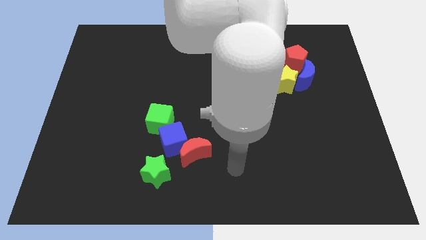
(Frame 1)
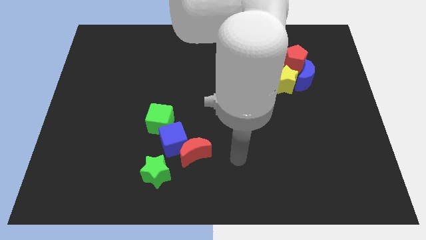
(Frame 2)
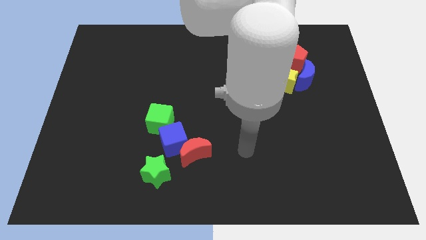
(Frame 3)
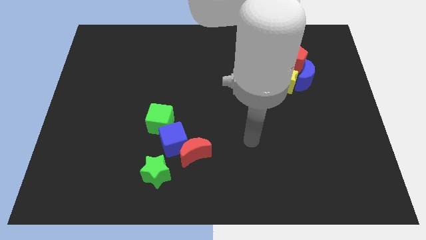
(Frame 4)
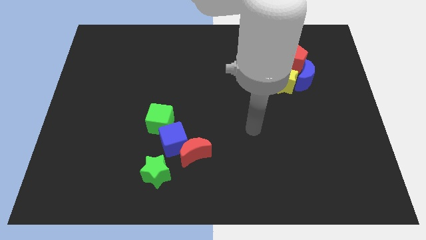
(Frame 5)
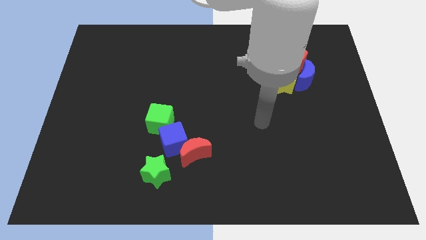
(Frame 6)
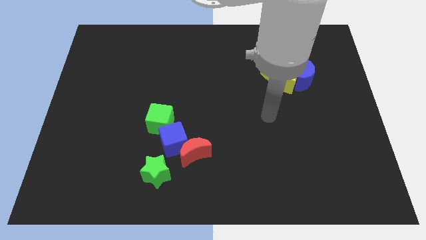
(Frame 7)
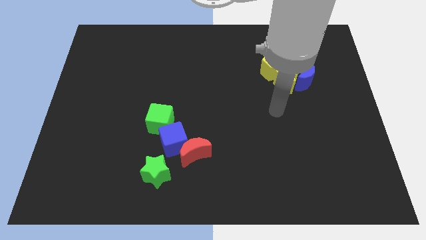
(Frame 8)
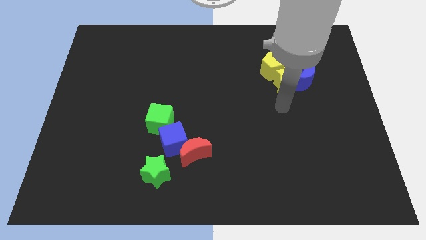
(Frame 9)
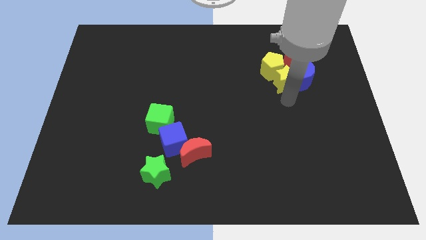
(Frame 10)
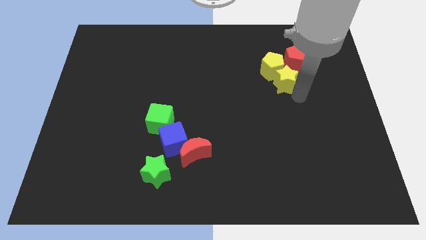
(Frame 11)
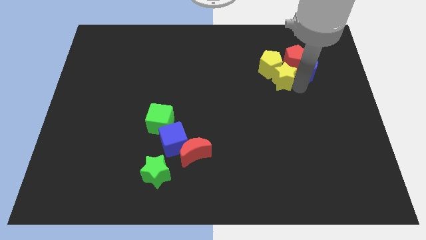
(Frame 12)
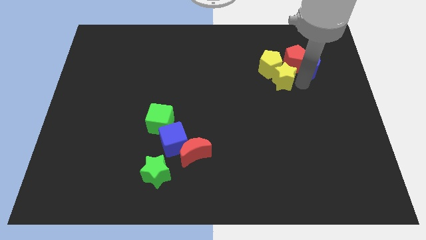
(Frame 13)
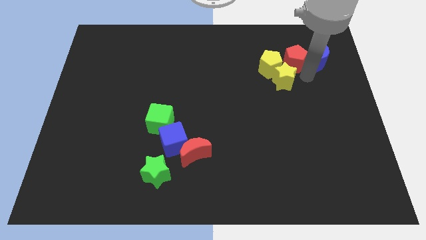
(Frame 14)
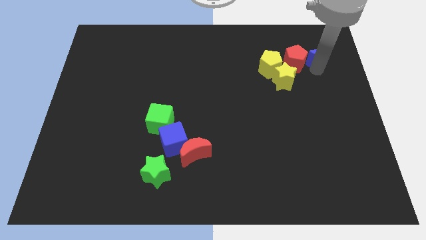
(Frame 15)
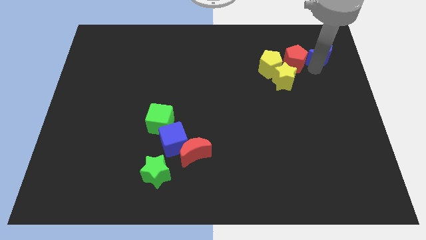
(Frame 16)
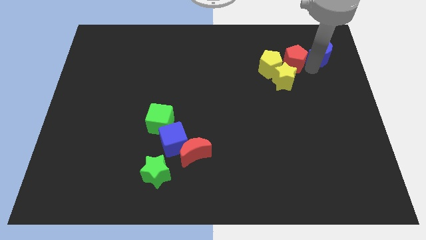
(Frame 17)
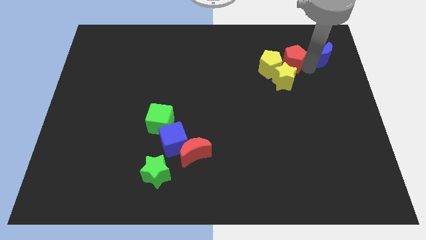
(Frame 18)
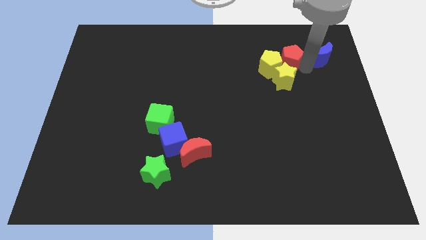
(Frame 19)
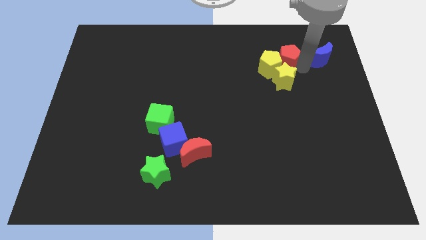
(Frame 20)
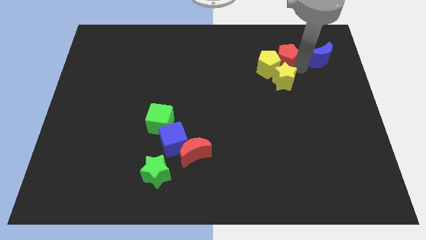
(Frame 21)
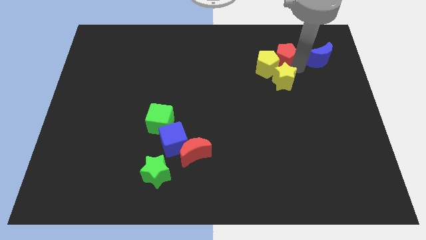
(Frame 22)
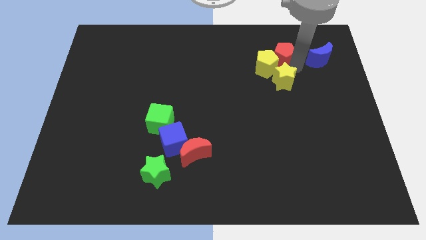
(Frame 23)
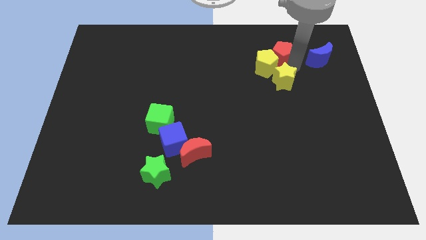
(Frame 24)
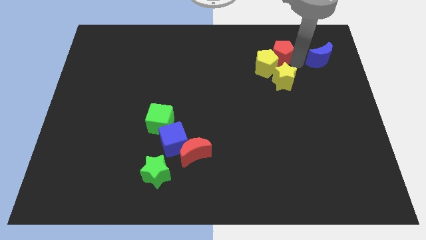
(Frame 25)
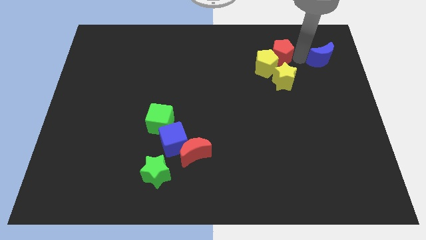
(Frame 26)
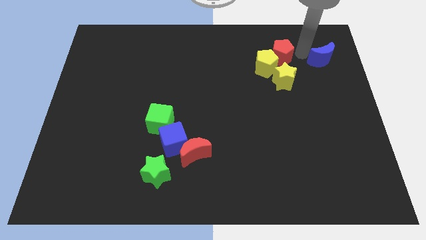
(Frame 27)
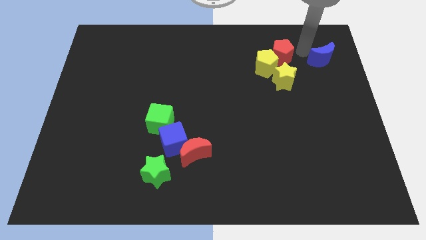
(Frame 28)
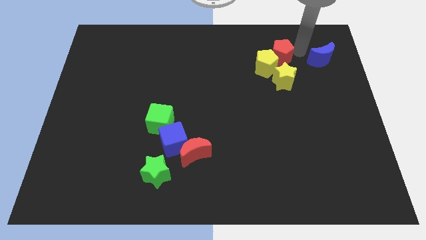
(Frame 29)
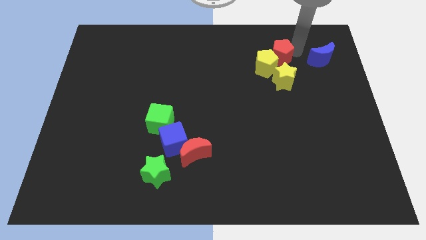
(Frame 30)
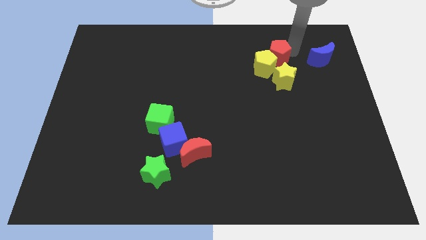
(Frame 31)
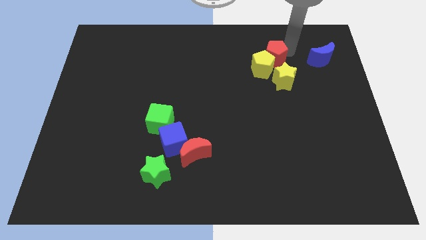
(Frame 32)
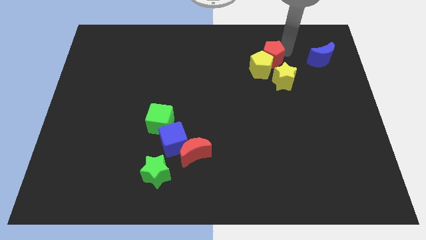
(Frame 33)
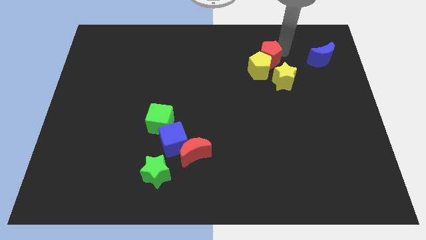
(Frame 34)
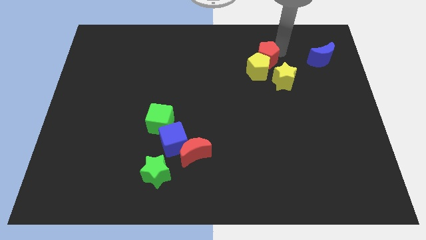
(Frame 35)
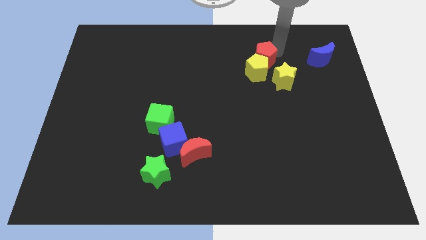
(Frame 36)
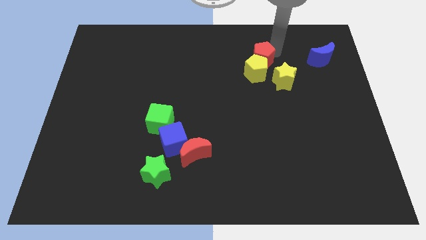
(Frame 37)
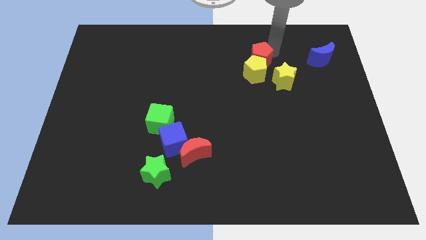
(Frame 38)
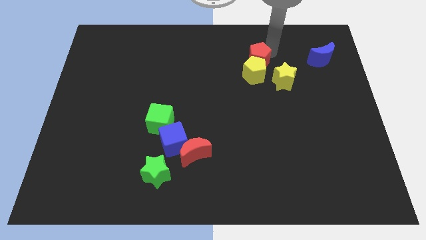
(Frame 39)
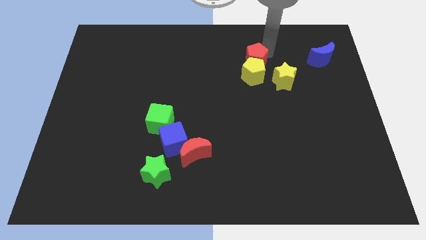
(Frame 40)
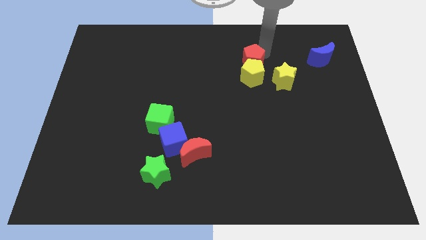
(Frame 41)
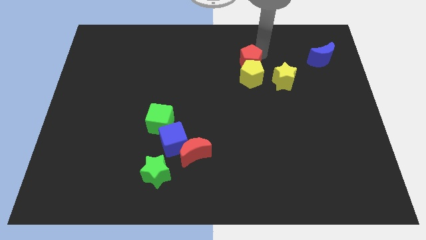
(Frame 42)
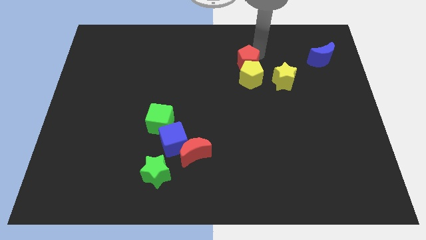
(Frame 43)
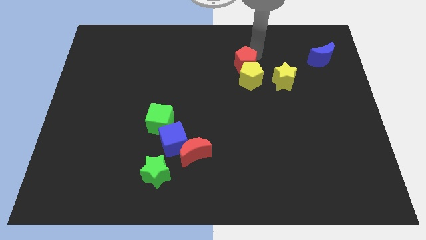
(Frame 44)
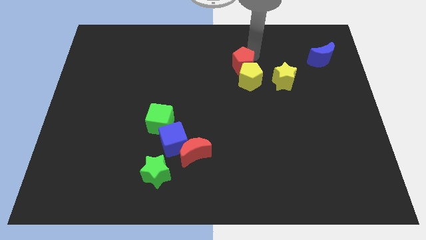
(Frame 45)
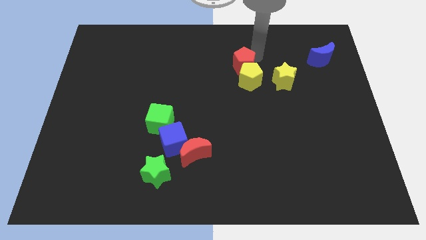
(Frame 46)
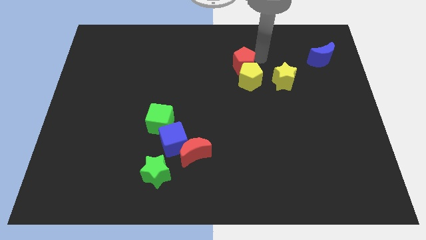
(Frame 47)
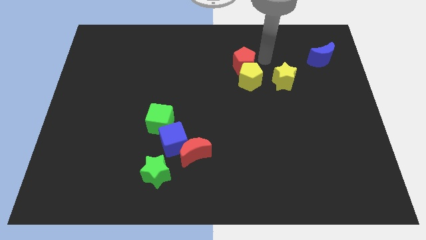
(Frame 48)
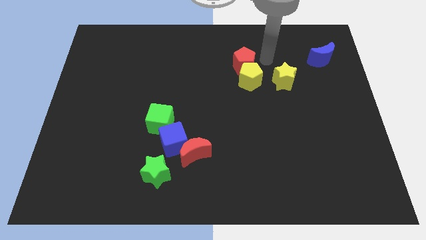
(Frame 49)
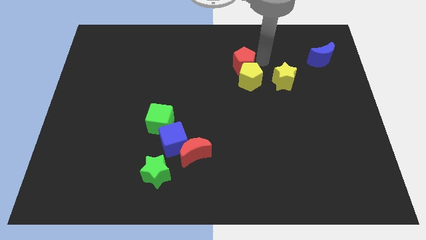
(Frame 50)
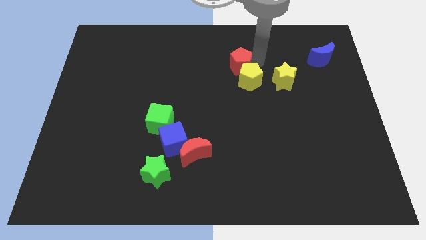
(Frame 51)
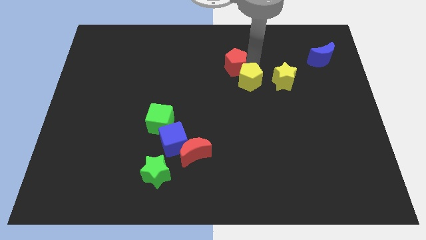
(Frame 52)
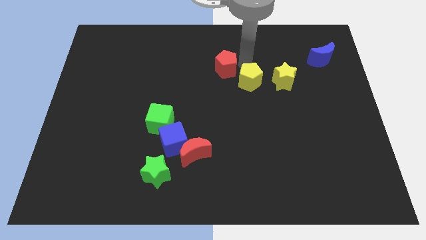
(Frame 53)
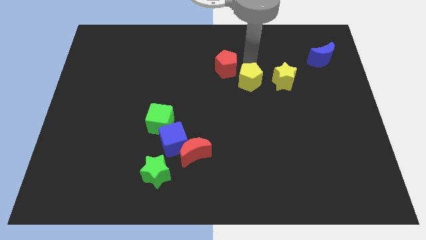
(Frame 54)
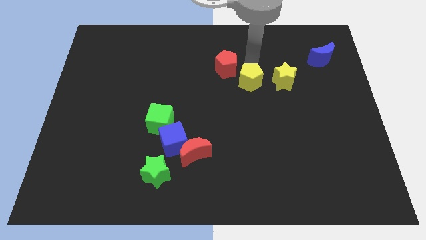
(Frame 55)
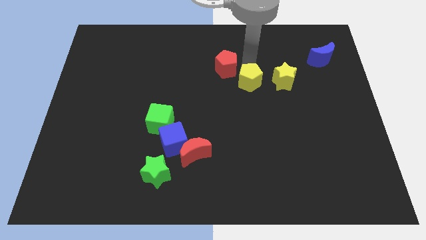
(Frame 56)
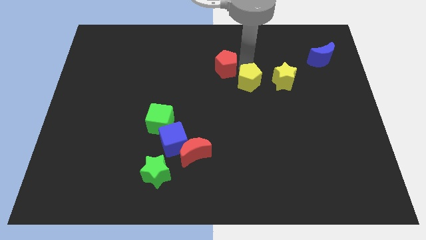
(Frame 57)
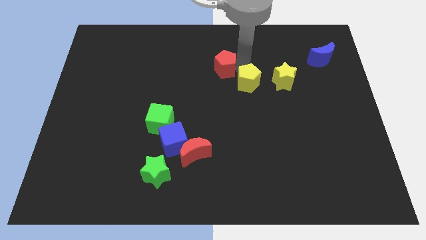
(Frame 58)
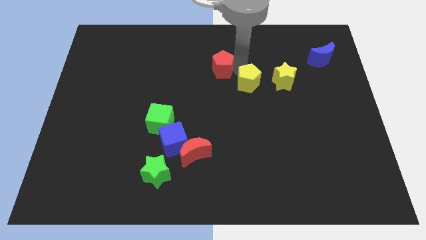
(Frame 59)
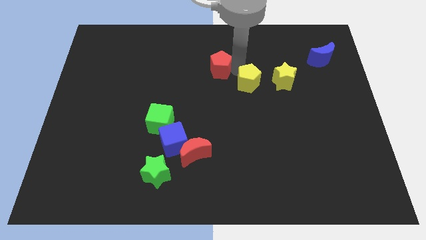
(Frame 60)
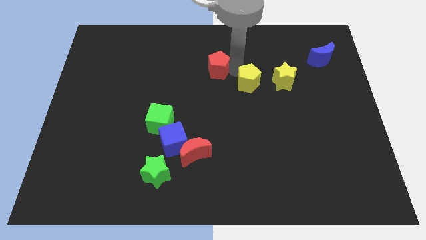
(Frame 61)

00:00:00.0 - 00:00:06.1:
move the red pentagon to the left

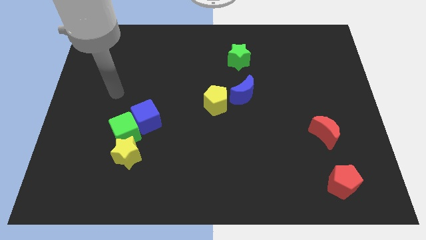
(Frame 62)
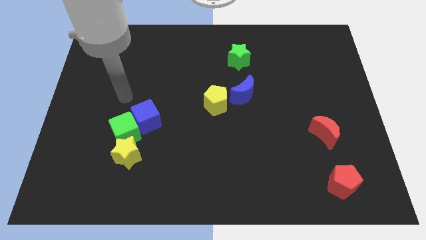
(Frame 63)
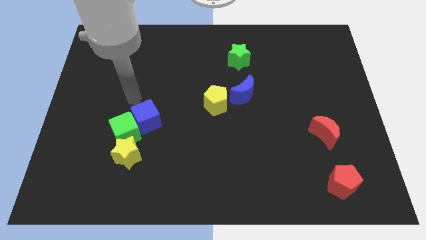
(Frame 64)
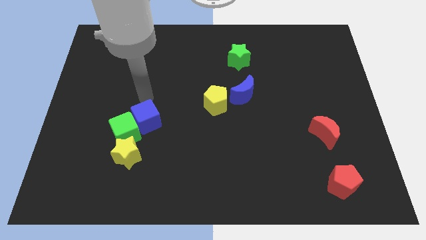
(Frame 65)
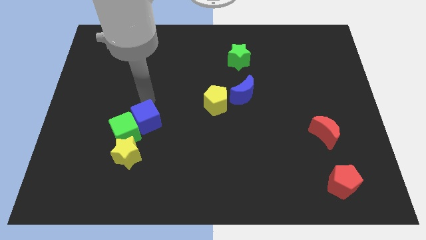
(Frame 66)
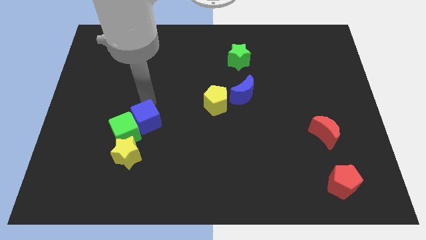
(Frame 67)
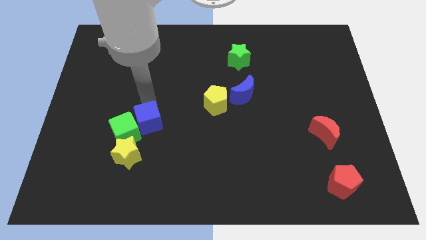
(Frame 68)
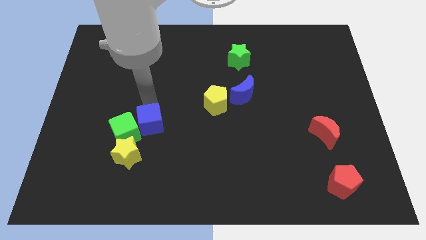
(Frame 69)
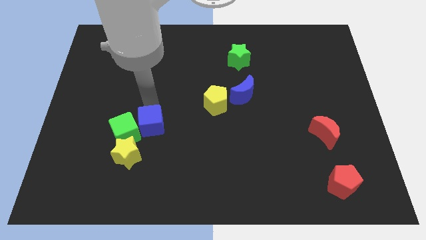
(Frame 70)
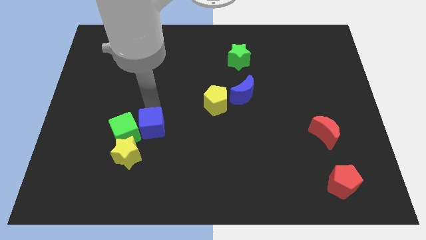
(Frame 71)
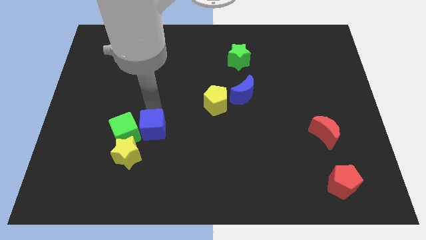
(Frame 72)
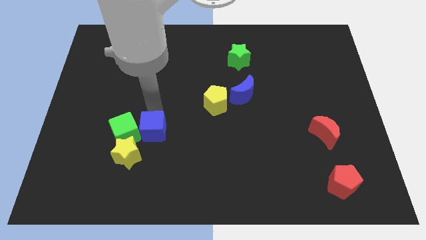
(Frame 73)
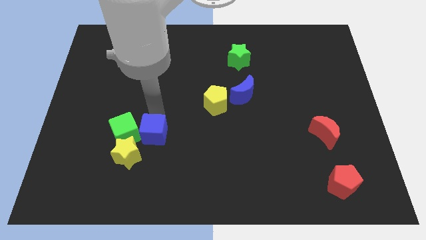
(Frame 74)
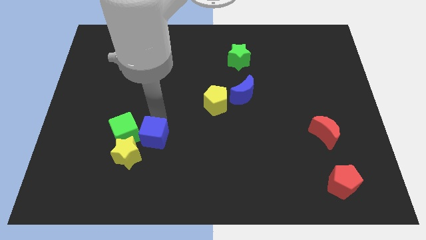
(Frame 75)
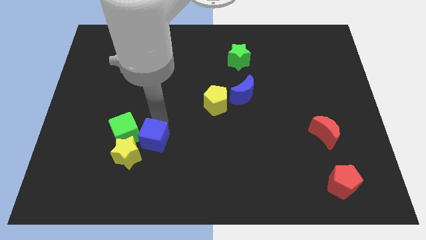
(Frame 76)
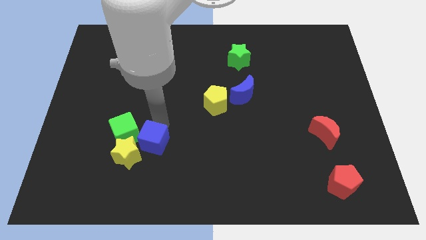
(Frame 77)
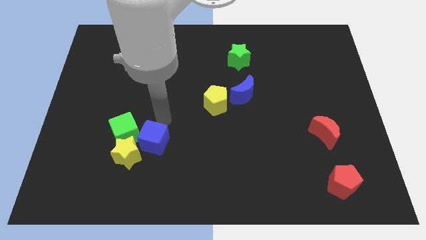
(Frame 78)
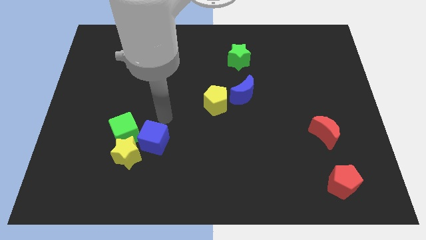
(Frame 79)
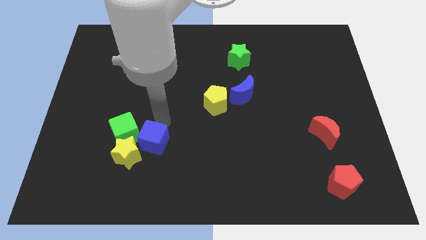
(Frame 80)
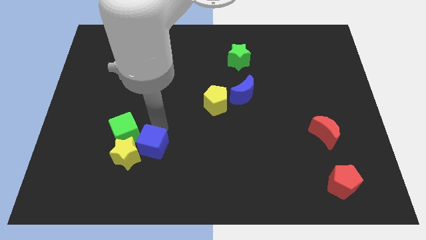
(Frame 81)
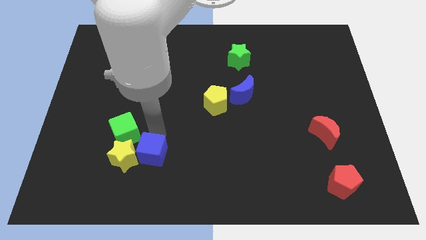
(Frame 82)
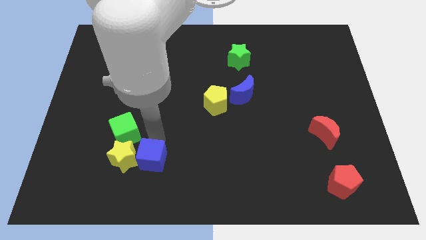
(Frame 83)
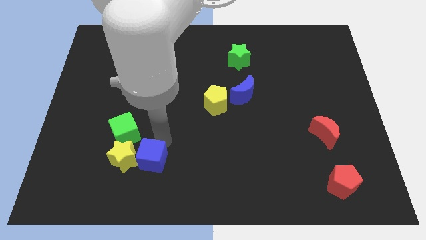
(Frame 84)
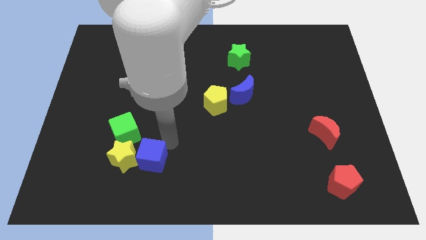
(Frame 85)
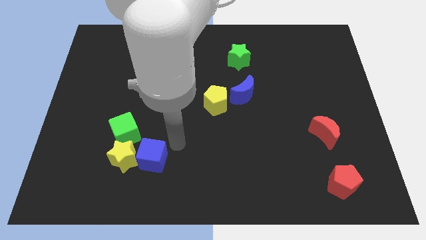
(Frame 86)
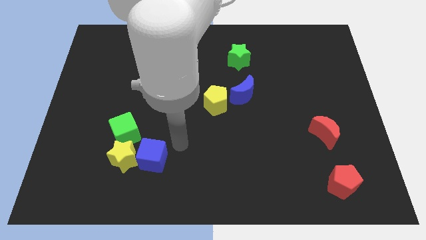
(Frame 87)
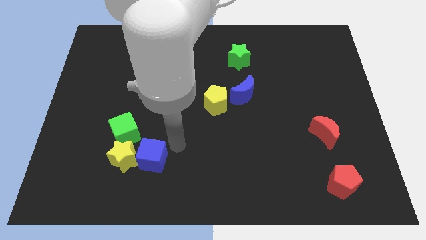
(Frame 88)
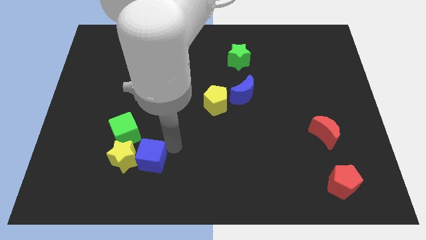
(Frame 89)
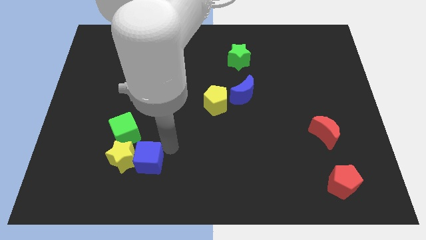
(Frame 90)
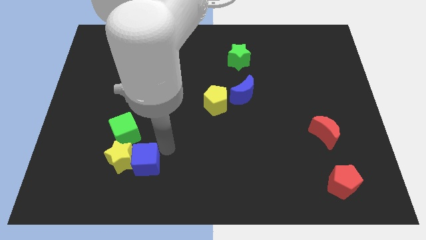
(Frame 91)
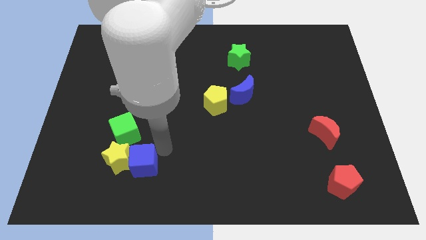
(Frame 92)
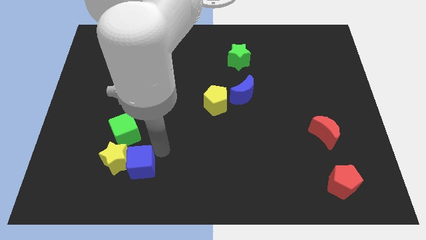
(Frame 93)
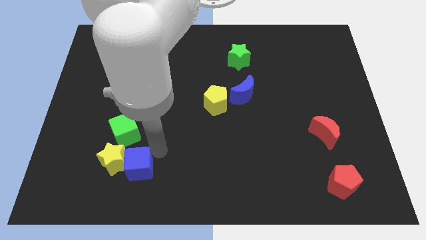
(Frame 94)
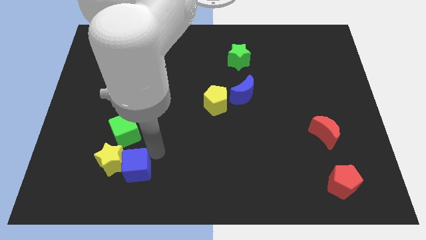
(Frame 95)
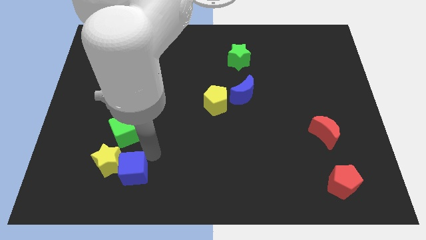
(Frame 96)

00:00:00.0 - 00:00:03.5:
slide the blue cube downwards and left somewhat
